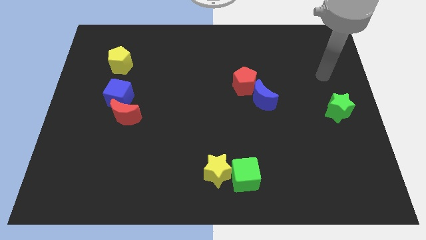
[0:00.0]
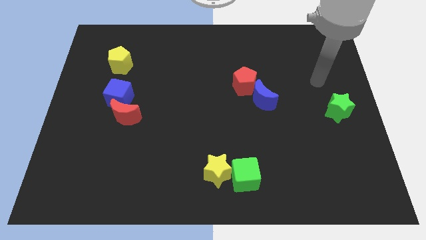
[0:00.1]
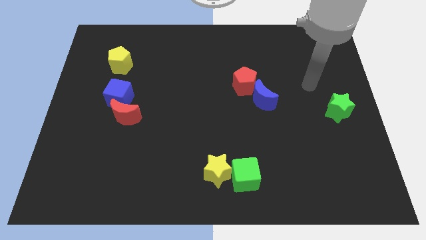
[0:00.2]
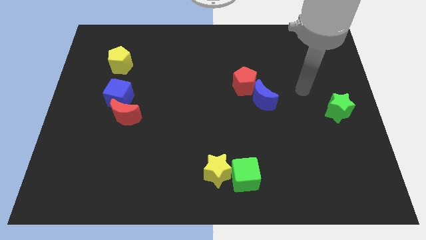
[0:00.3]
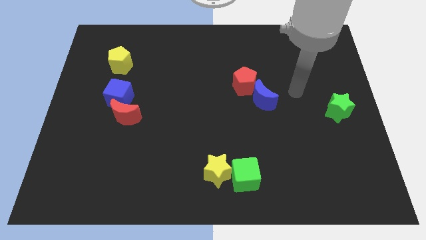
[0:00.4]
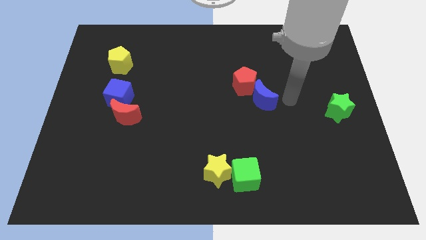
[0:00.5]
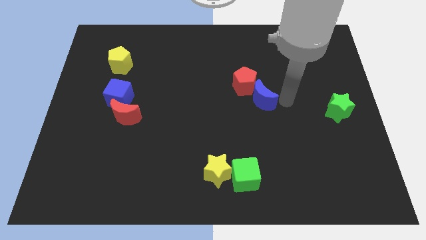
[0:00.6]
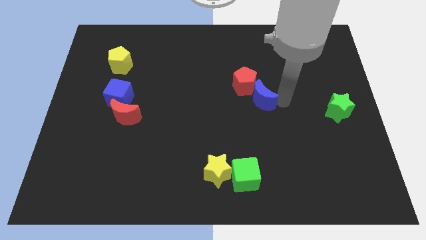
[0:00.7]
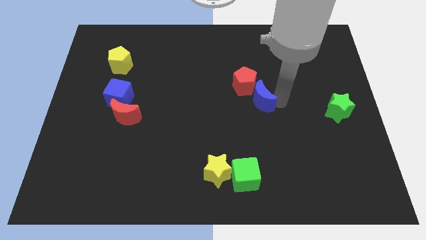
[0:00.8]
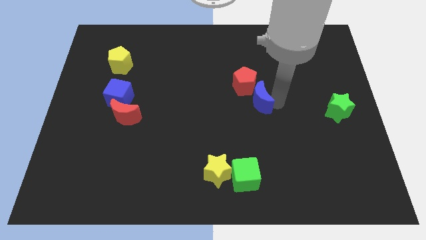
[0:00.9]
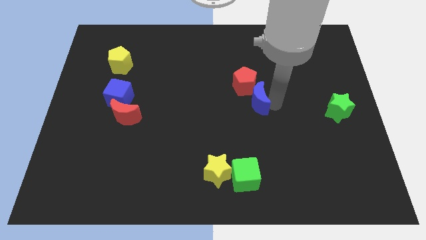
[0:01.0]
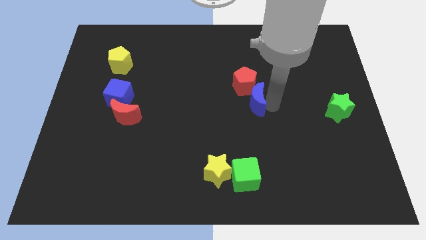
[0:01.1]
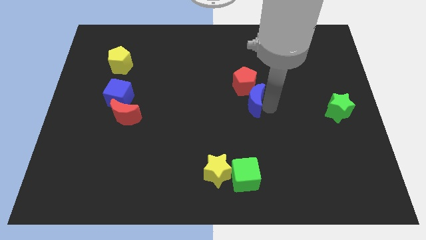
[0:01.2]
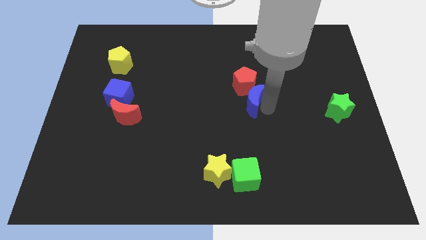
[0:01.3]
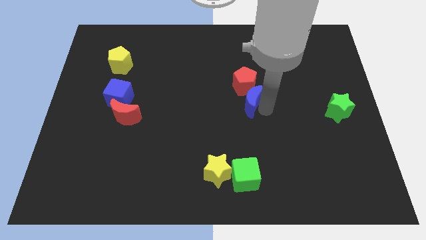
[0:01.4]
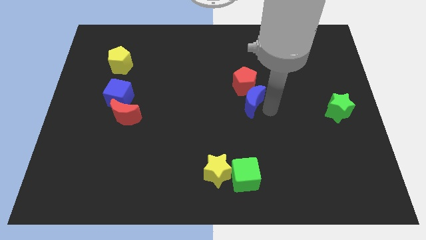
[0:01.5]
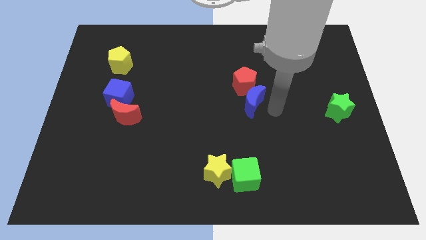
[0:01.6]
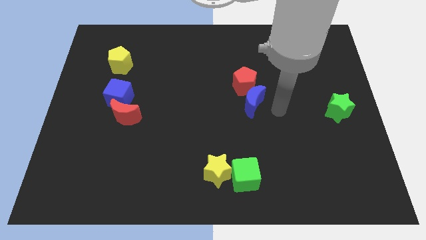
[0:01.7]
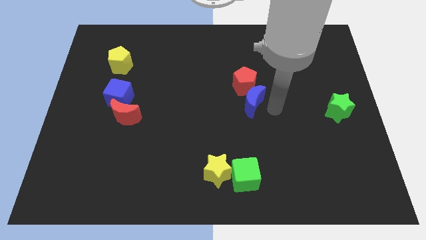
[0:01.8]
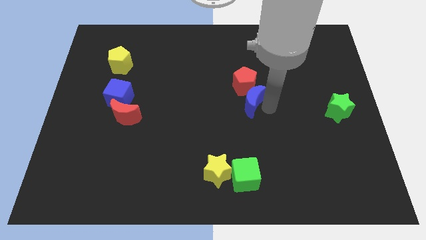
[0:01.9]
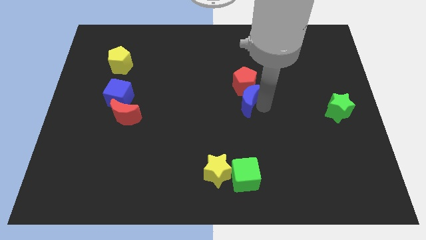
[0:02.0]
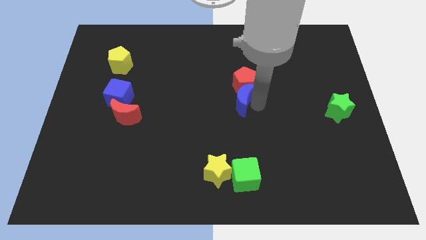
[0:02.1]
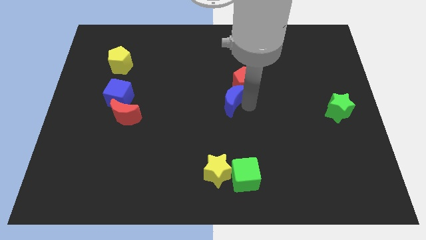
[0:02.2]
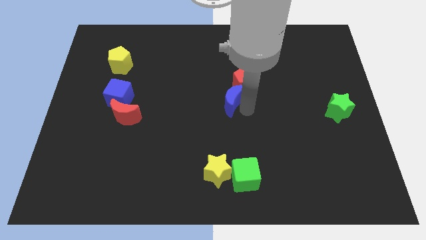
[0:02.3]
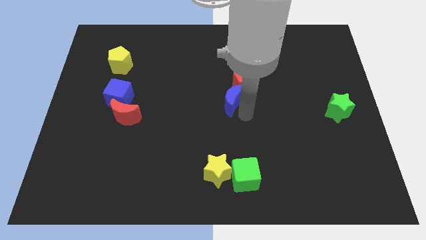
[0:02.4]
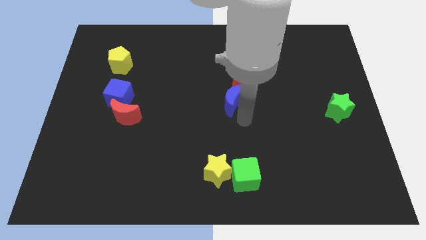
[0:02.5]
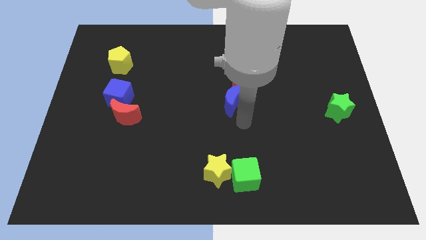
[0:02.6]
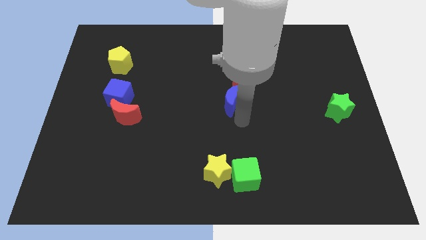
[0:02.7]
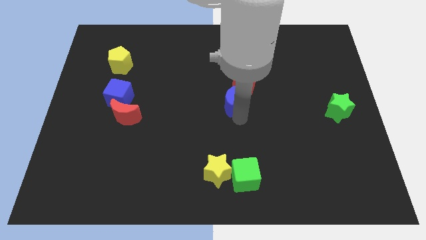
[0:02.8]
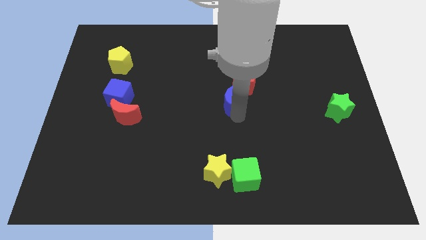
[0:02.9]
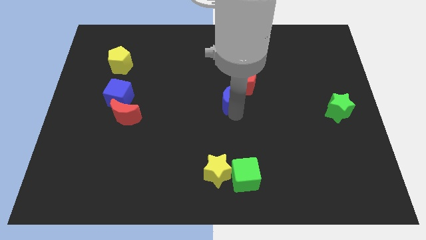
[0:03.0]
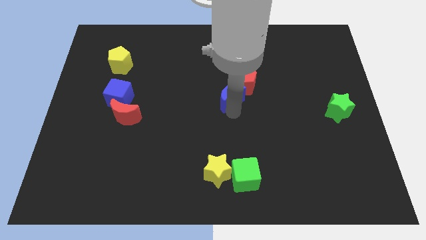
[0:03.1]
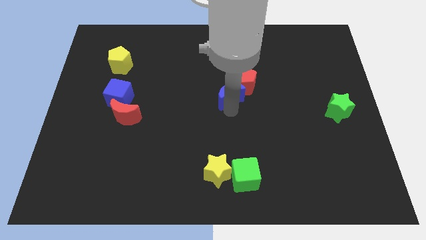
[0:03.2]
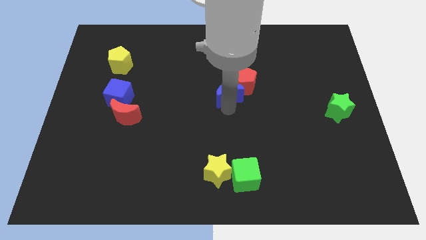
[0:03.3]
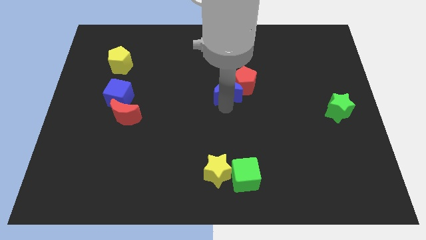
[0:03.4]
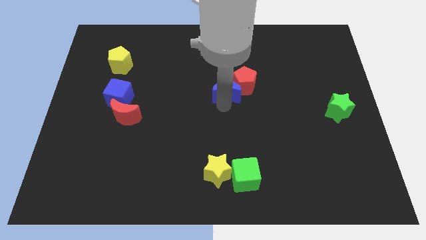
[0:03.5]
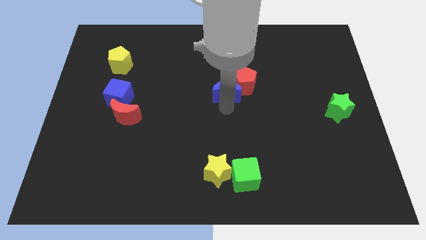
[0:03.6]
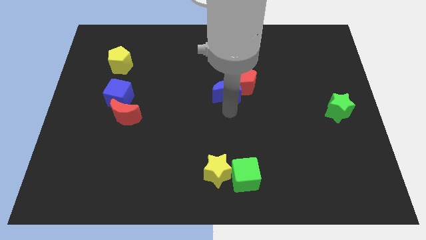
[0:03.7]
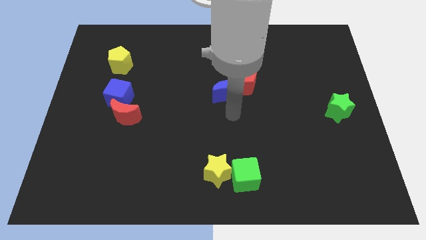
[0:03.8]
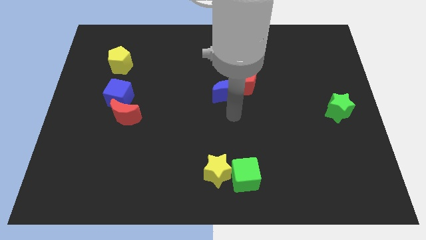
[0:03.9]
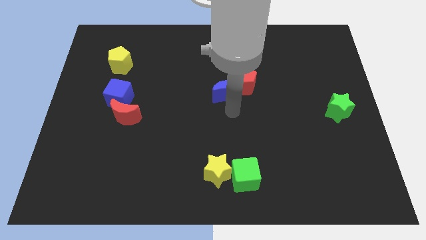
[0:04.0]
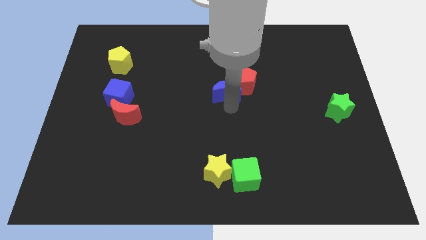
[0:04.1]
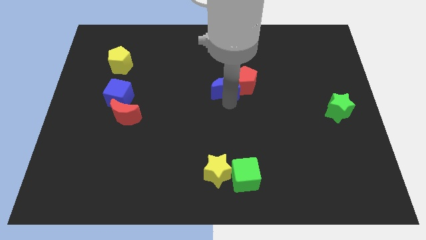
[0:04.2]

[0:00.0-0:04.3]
push the blue moon a little bit diagonally upwards and left

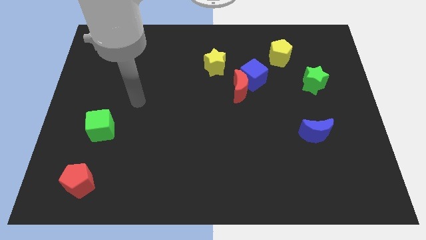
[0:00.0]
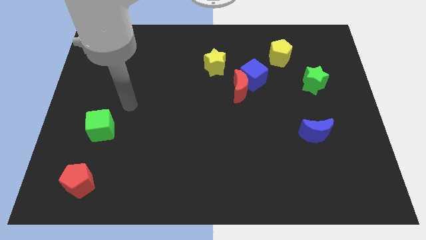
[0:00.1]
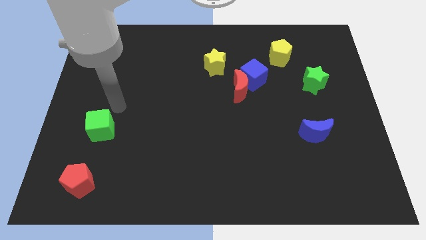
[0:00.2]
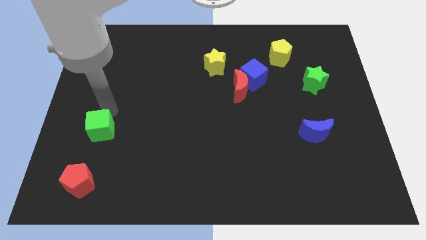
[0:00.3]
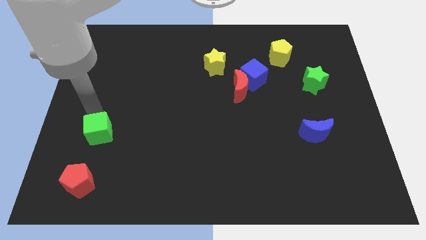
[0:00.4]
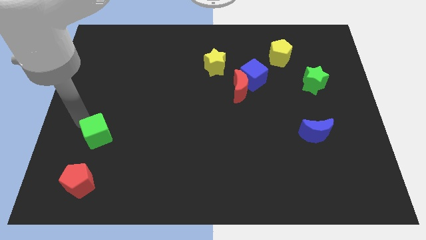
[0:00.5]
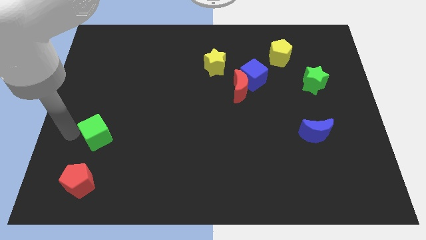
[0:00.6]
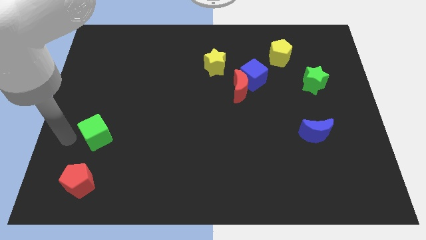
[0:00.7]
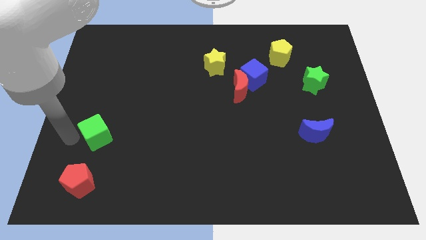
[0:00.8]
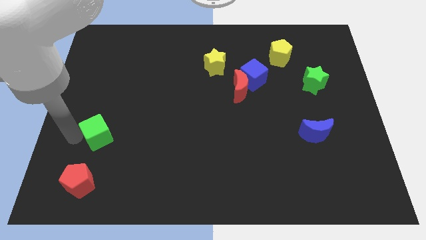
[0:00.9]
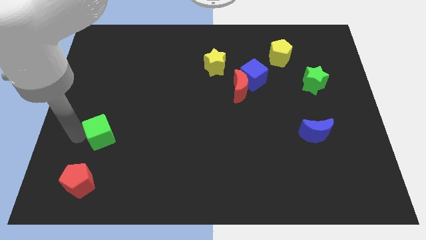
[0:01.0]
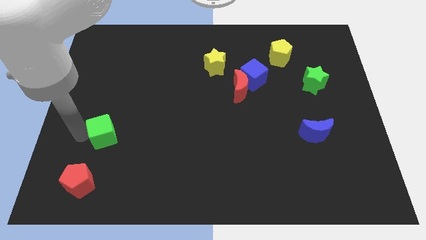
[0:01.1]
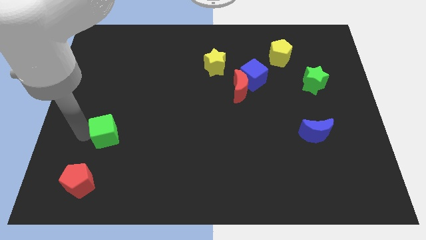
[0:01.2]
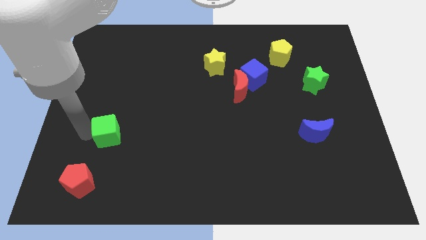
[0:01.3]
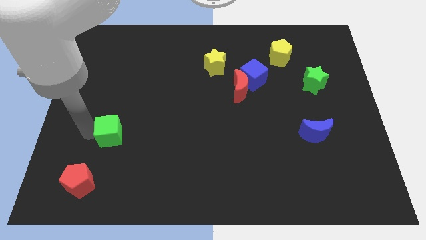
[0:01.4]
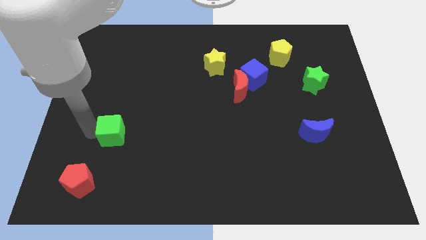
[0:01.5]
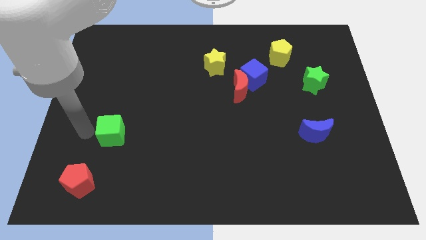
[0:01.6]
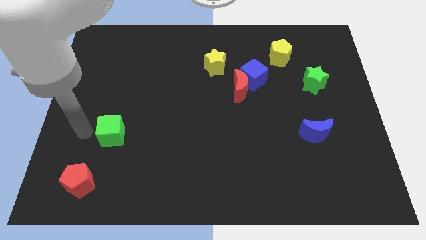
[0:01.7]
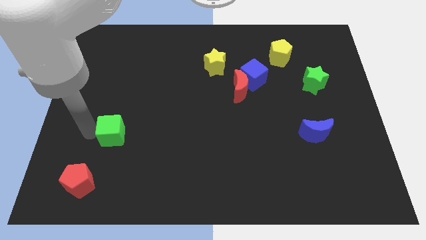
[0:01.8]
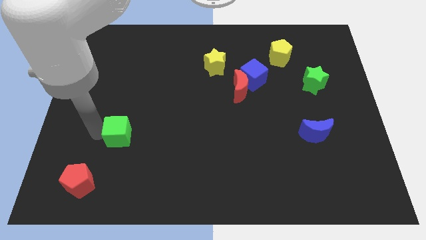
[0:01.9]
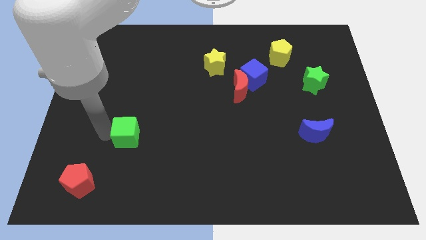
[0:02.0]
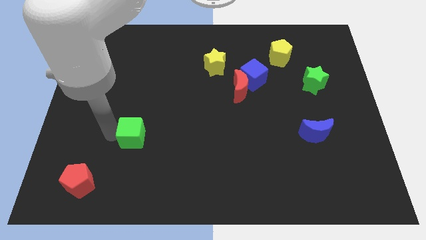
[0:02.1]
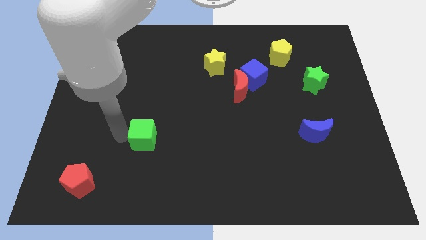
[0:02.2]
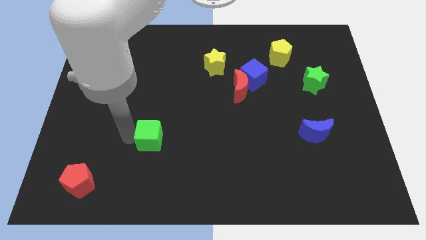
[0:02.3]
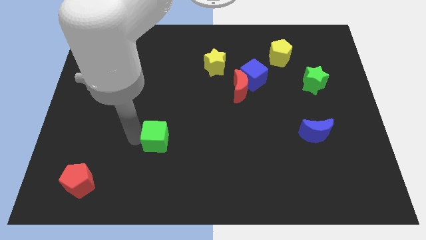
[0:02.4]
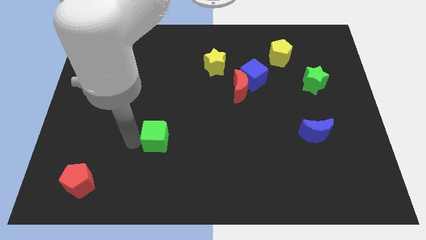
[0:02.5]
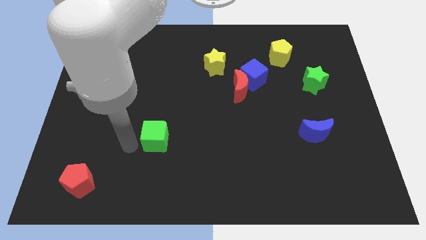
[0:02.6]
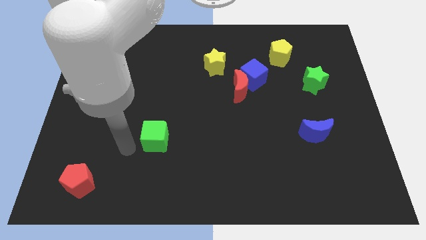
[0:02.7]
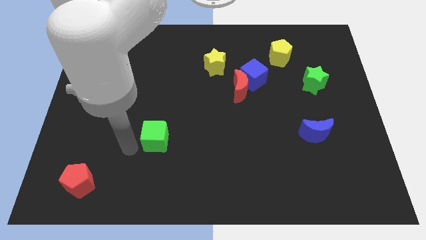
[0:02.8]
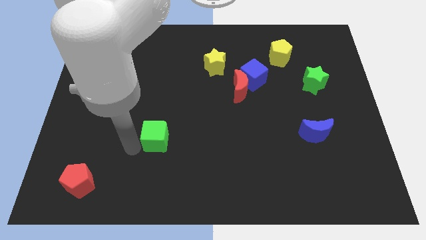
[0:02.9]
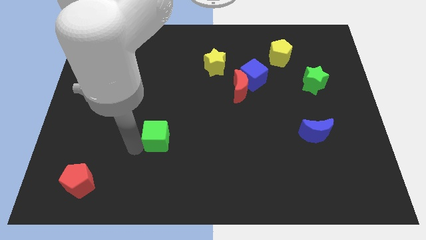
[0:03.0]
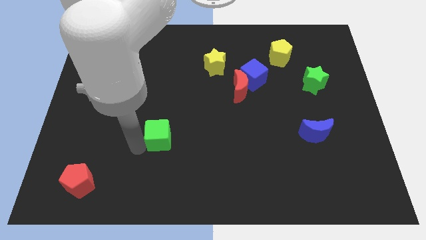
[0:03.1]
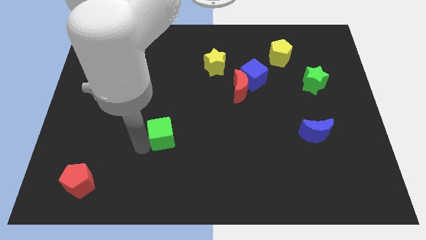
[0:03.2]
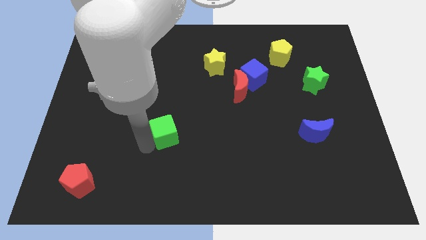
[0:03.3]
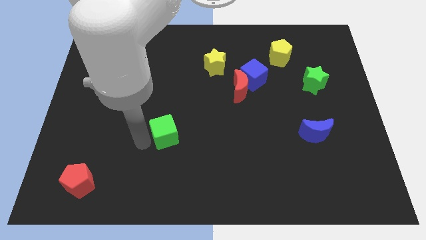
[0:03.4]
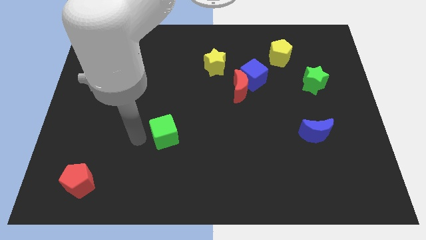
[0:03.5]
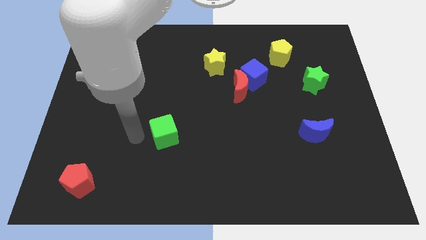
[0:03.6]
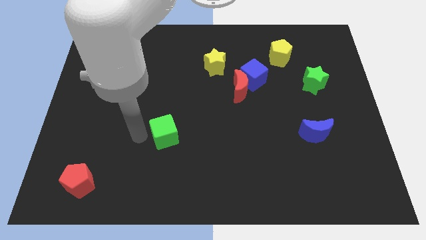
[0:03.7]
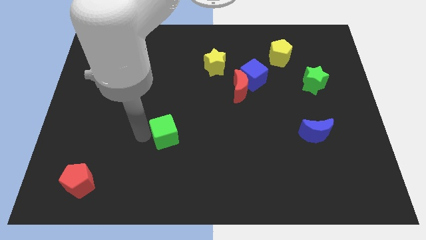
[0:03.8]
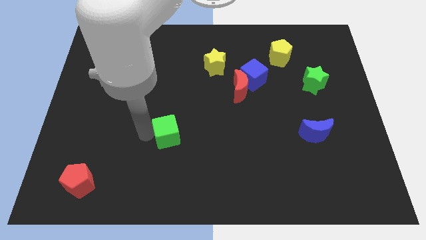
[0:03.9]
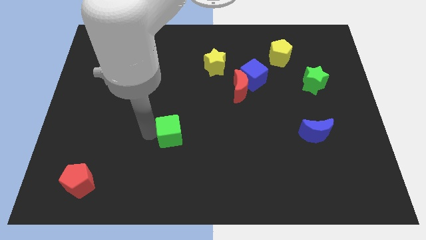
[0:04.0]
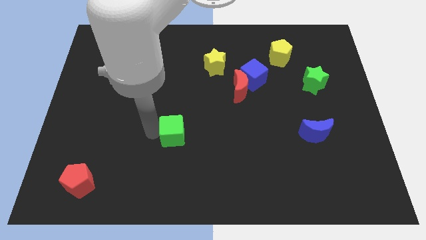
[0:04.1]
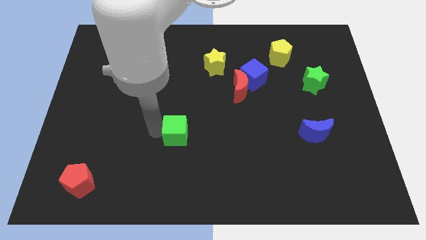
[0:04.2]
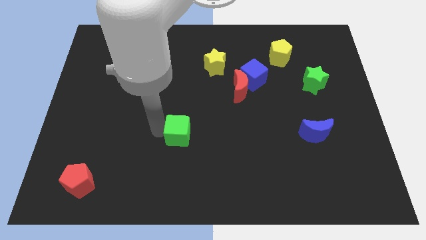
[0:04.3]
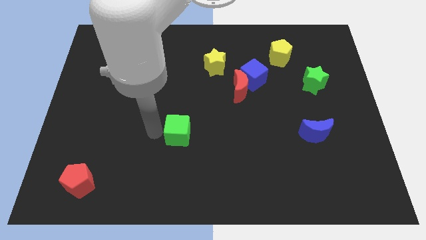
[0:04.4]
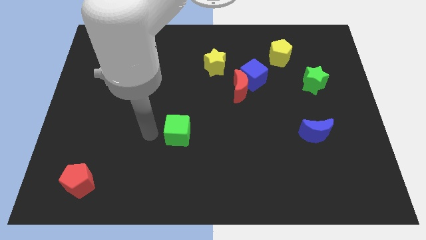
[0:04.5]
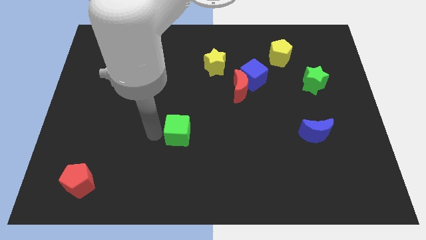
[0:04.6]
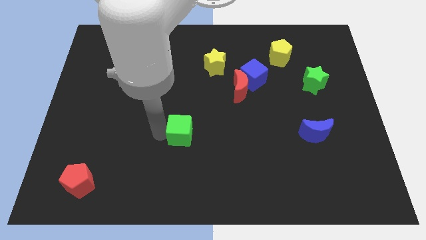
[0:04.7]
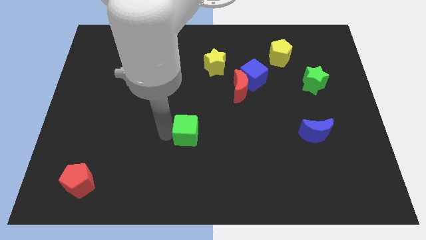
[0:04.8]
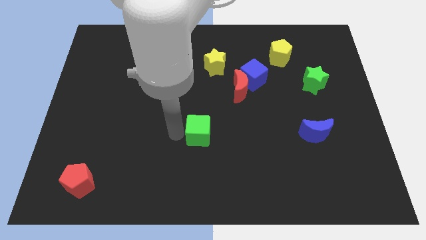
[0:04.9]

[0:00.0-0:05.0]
move the green cube to the right
